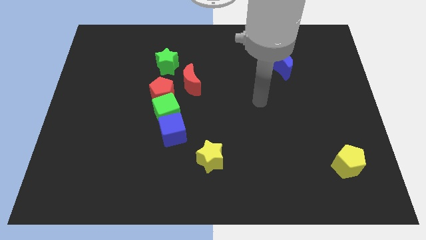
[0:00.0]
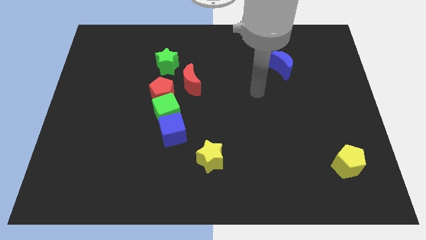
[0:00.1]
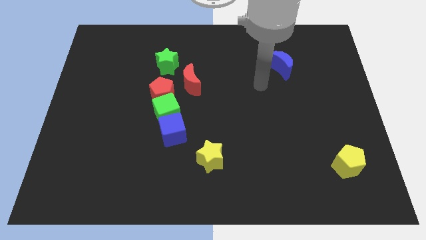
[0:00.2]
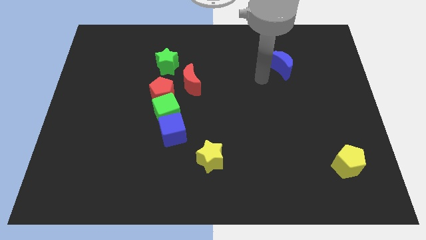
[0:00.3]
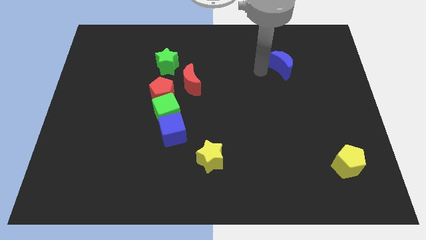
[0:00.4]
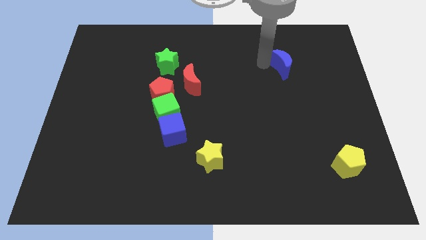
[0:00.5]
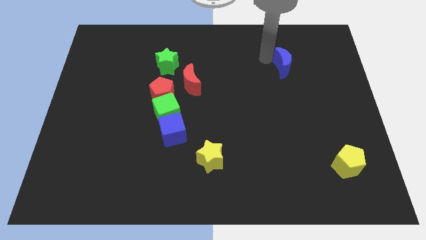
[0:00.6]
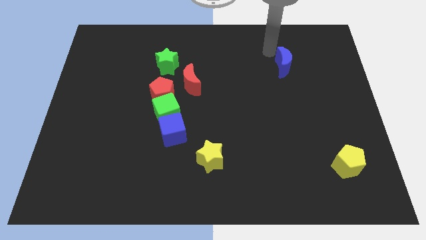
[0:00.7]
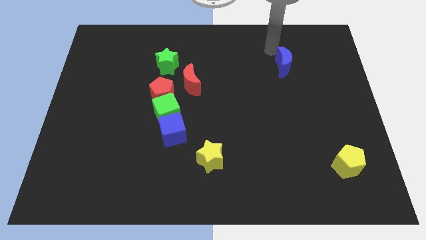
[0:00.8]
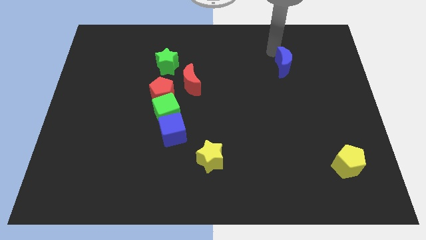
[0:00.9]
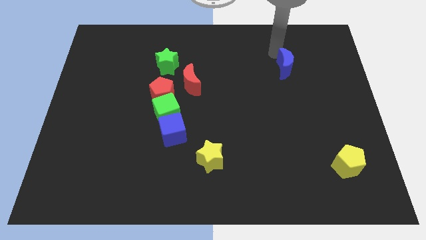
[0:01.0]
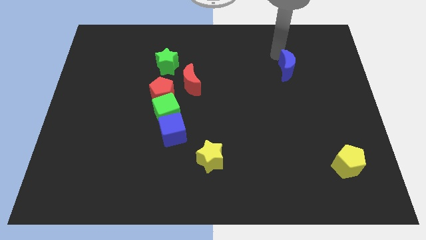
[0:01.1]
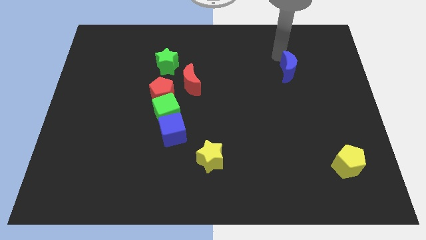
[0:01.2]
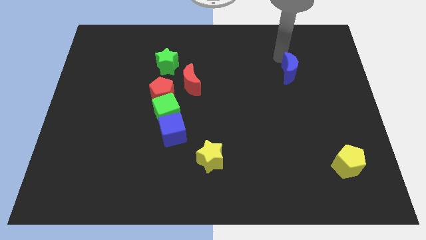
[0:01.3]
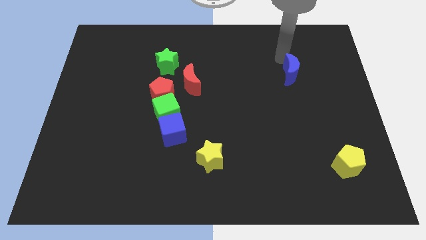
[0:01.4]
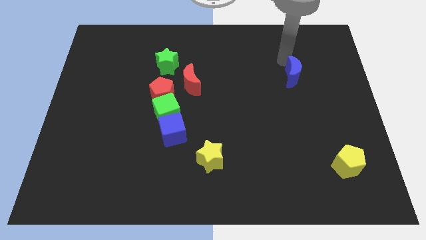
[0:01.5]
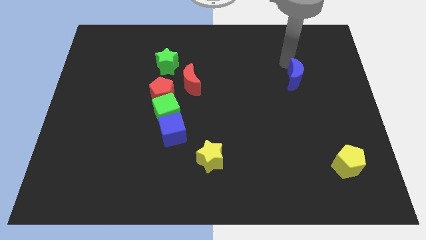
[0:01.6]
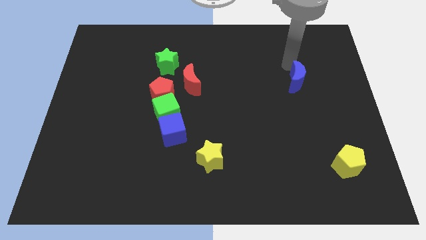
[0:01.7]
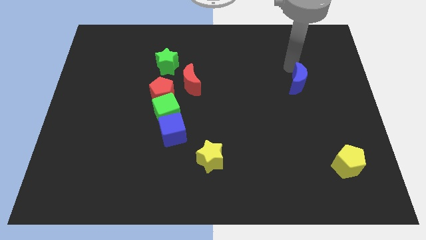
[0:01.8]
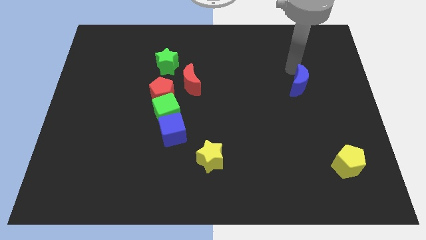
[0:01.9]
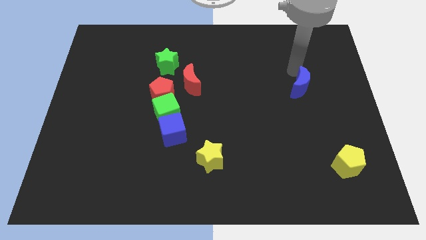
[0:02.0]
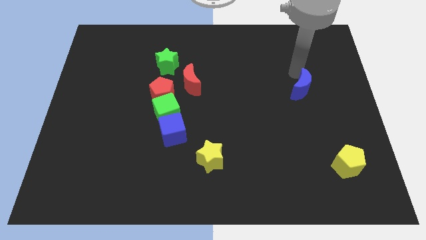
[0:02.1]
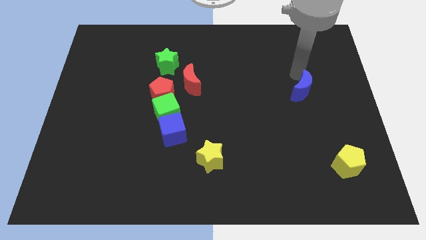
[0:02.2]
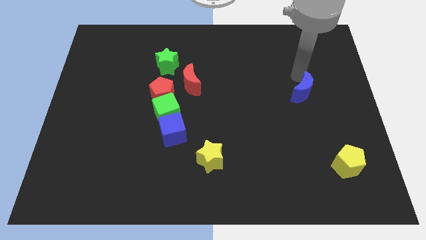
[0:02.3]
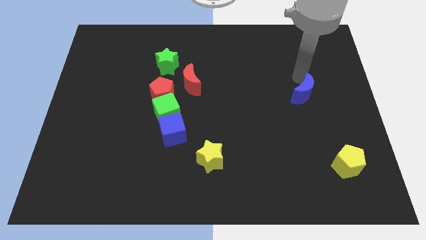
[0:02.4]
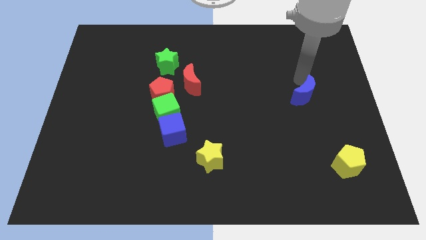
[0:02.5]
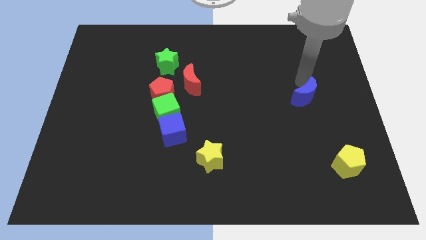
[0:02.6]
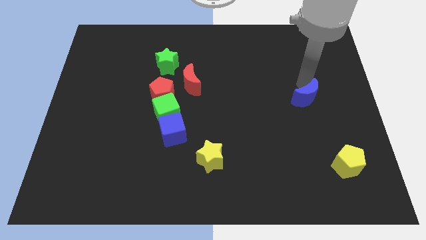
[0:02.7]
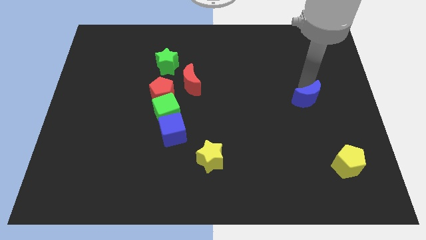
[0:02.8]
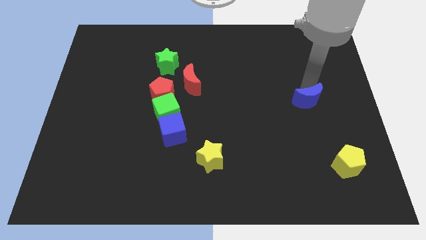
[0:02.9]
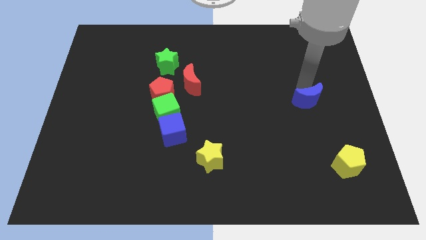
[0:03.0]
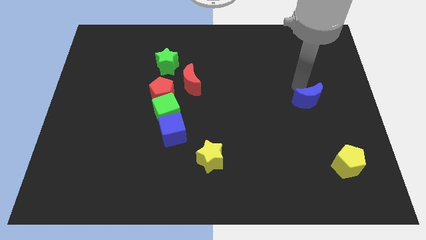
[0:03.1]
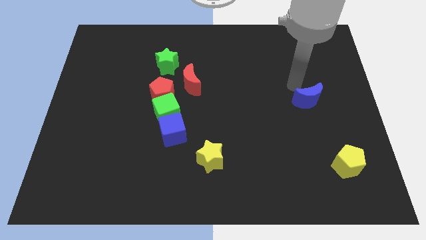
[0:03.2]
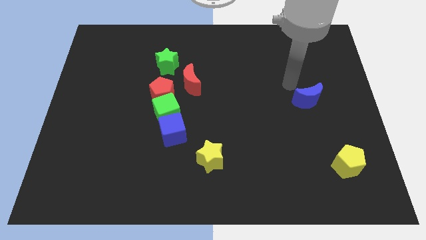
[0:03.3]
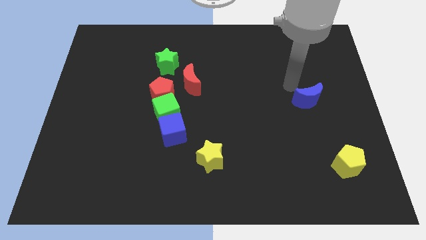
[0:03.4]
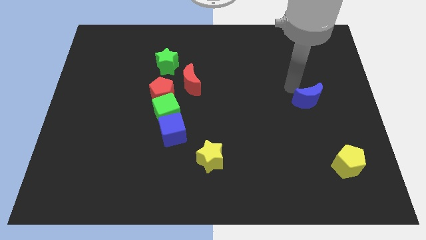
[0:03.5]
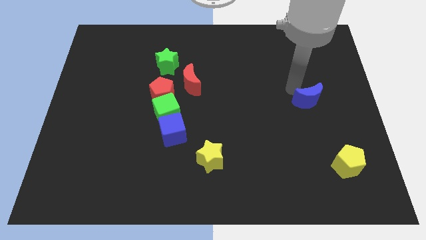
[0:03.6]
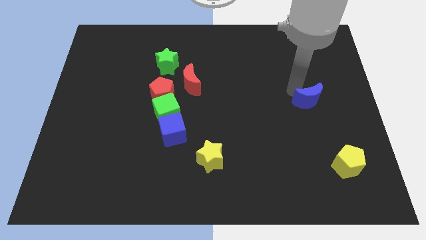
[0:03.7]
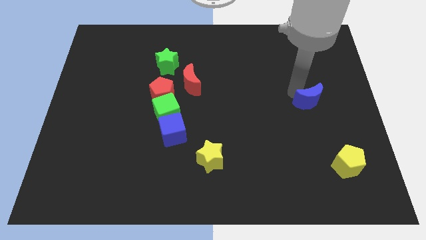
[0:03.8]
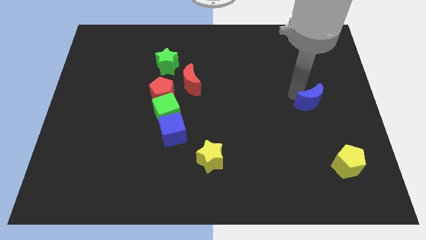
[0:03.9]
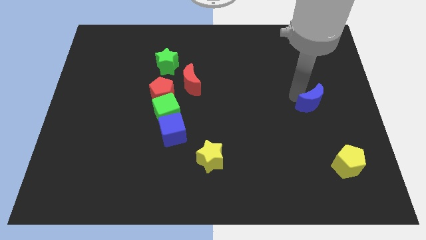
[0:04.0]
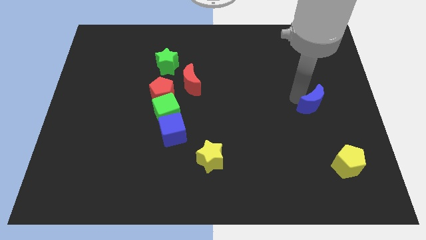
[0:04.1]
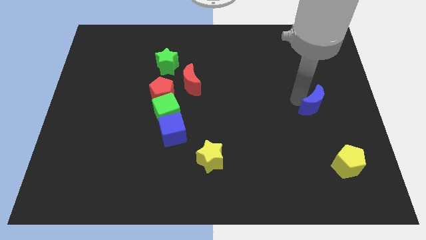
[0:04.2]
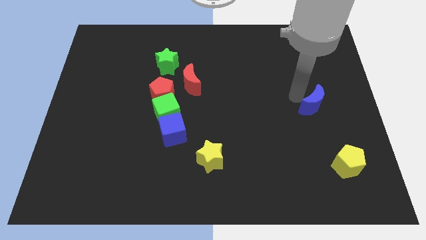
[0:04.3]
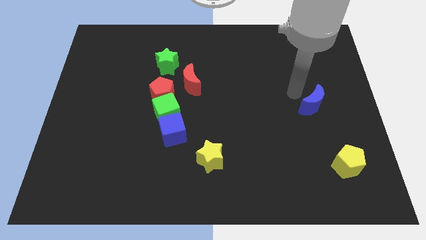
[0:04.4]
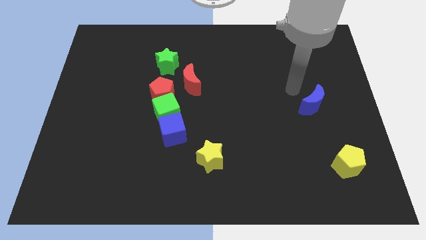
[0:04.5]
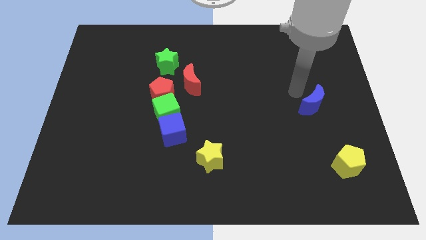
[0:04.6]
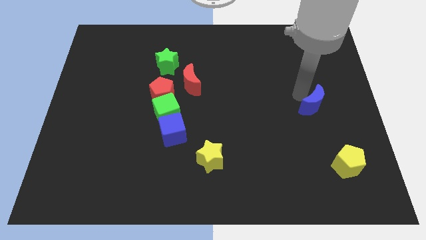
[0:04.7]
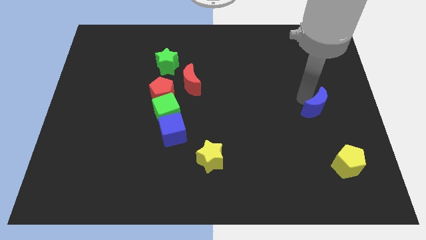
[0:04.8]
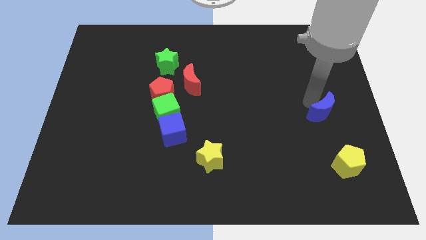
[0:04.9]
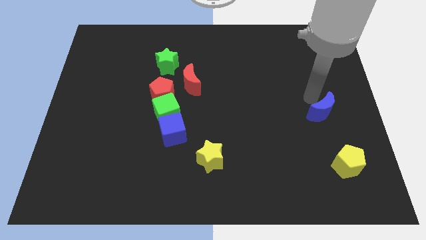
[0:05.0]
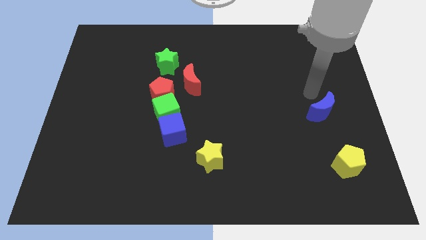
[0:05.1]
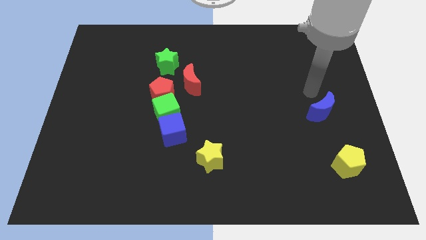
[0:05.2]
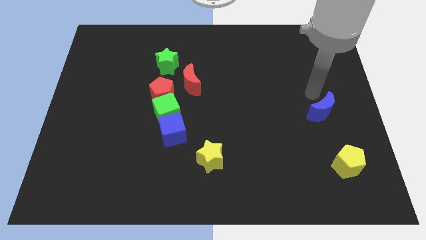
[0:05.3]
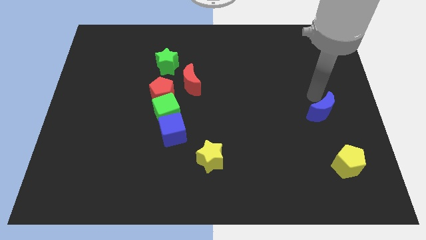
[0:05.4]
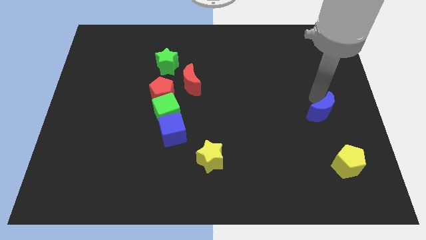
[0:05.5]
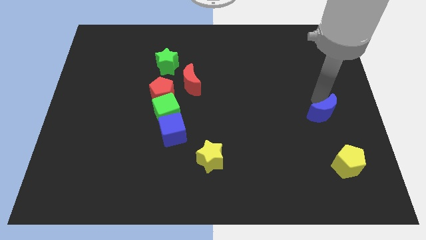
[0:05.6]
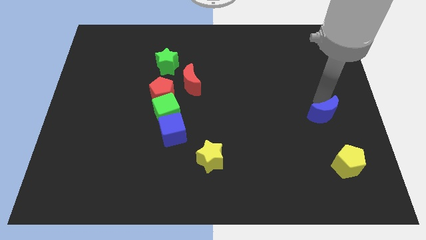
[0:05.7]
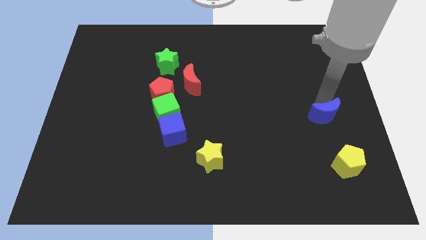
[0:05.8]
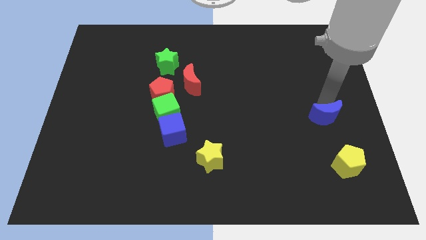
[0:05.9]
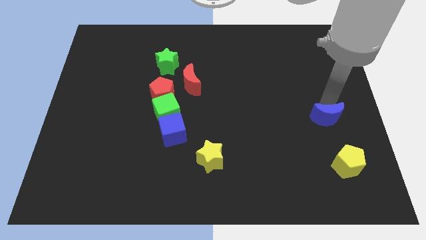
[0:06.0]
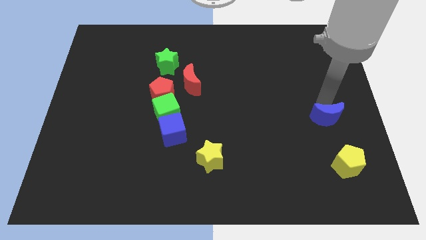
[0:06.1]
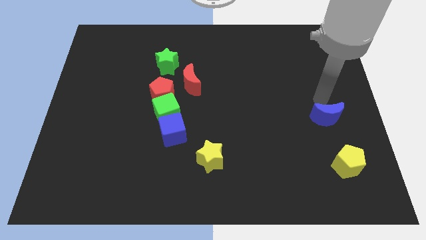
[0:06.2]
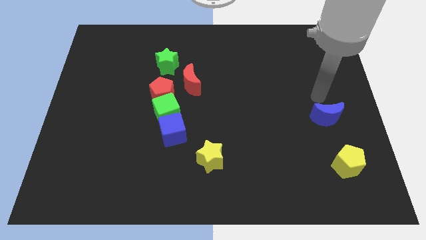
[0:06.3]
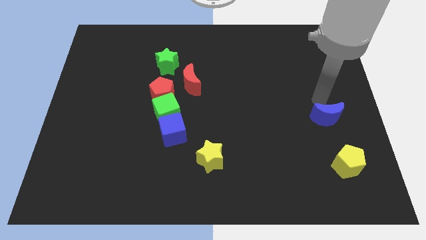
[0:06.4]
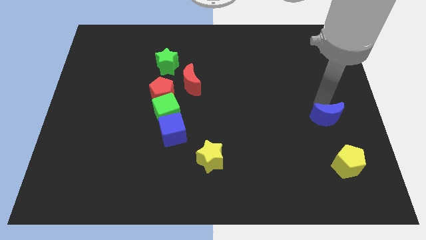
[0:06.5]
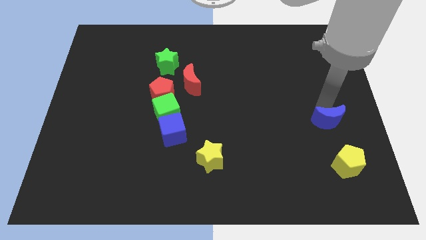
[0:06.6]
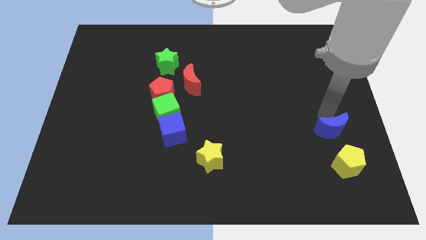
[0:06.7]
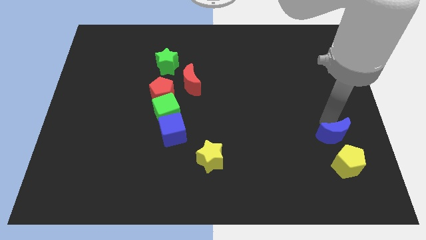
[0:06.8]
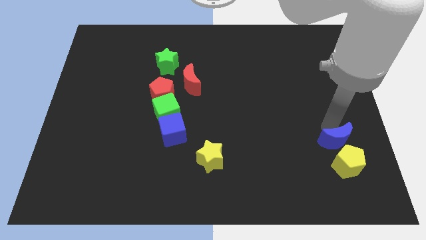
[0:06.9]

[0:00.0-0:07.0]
slide the blue moon next to the yellow pentagon
